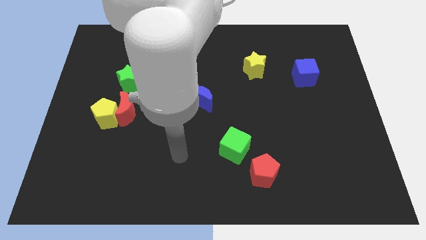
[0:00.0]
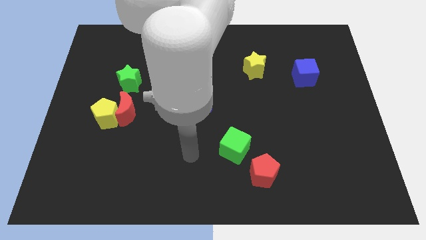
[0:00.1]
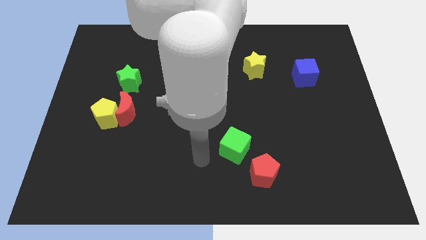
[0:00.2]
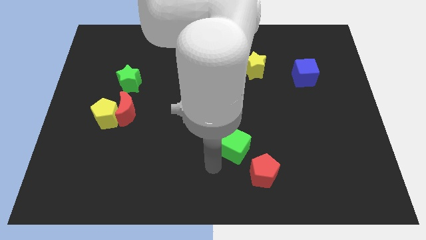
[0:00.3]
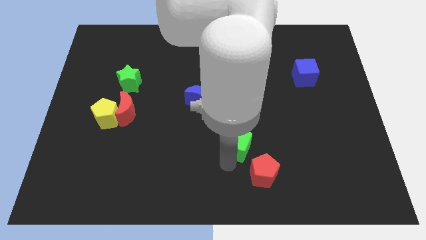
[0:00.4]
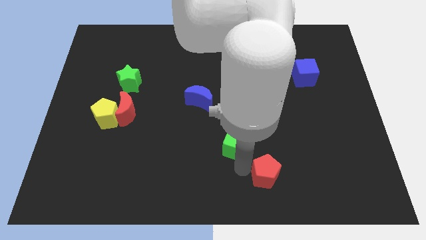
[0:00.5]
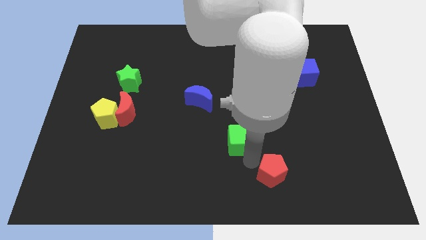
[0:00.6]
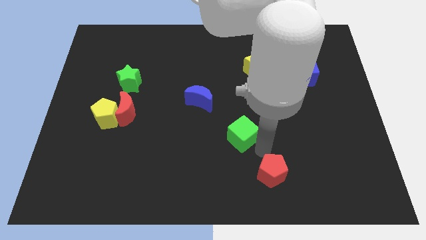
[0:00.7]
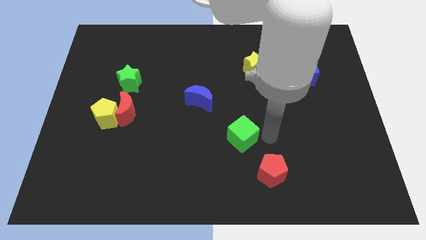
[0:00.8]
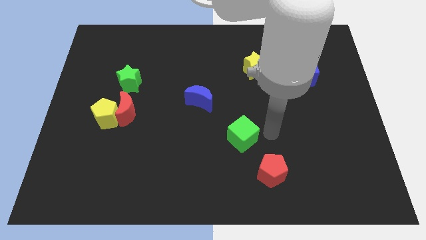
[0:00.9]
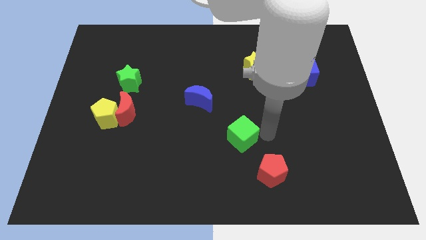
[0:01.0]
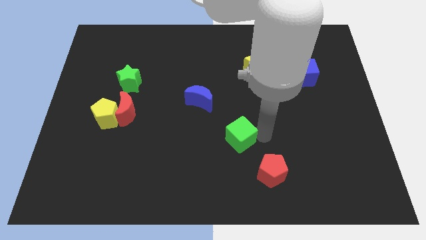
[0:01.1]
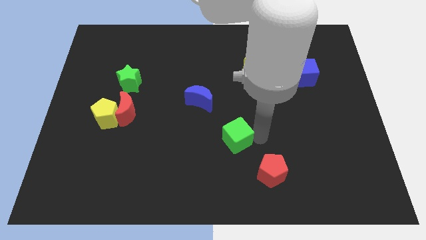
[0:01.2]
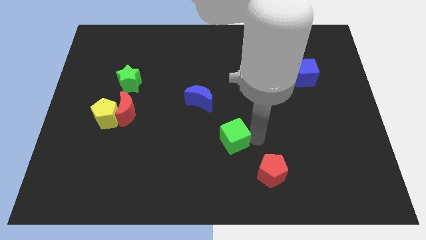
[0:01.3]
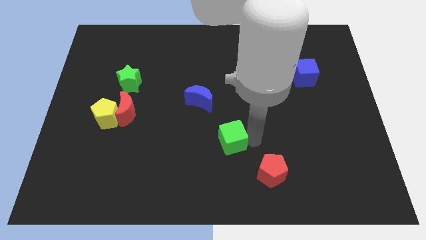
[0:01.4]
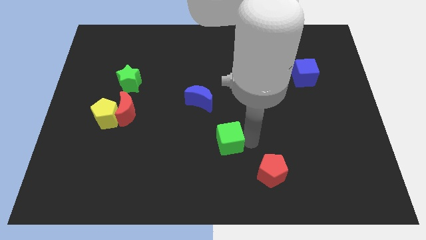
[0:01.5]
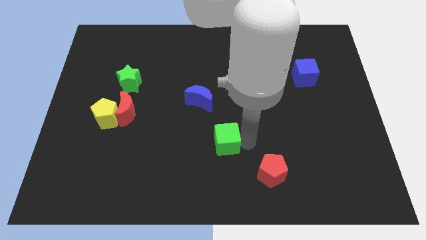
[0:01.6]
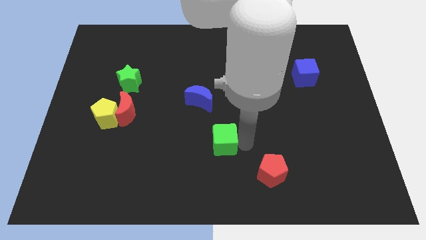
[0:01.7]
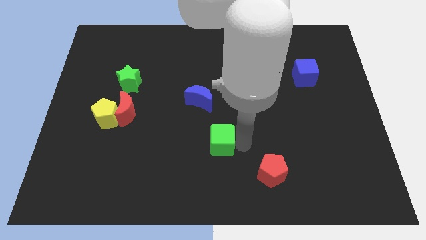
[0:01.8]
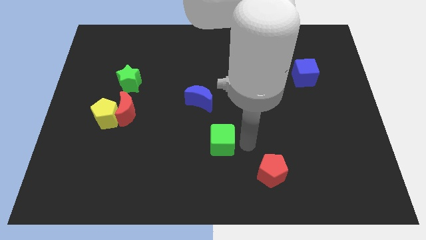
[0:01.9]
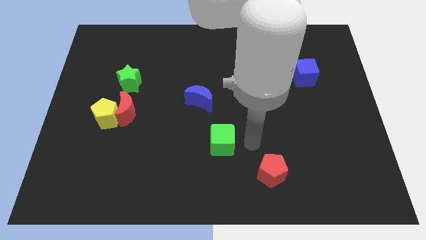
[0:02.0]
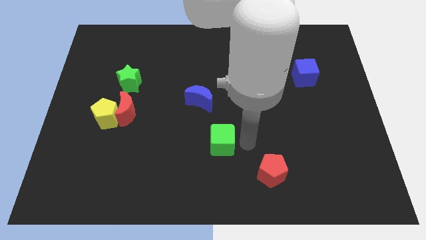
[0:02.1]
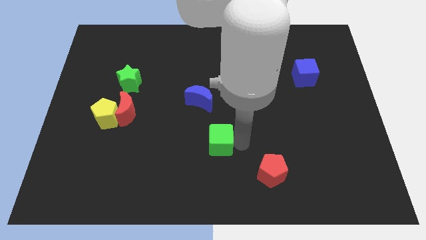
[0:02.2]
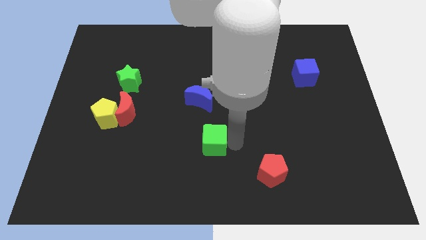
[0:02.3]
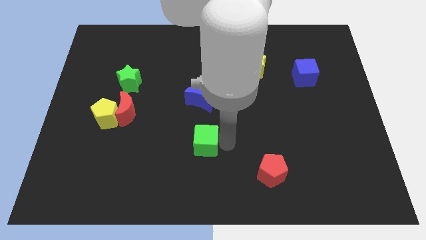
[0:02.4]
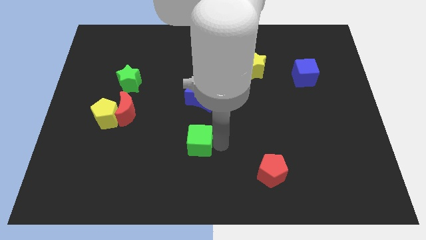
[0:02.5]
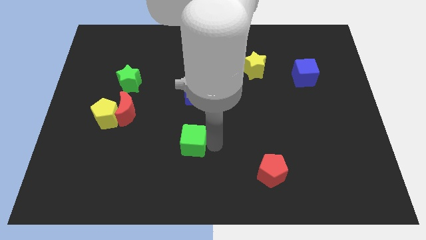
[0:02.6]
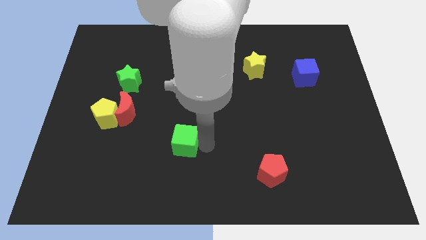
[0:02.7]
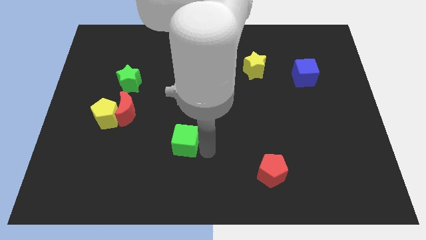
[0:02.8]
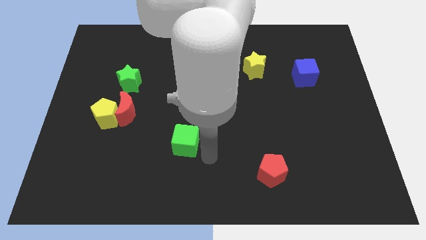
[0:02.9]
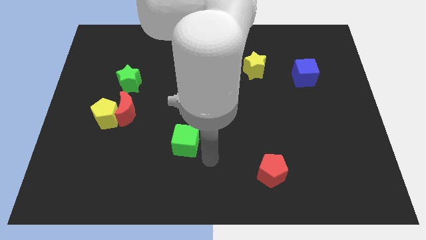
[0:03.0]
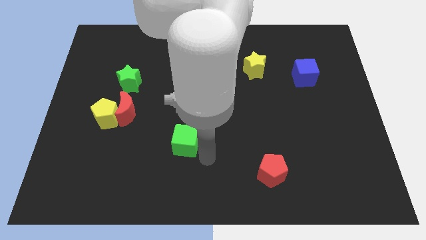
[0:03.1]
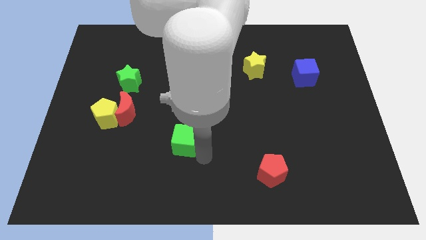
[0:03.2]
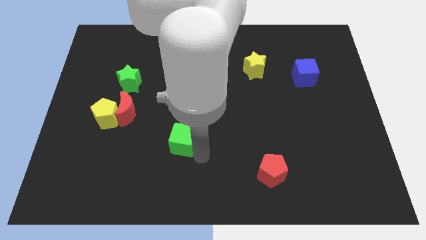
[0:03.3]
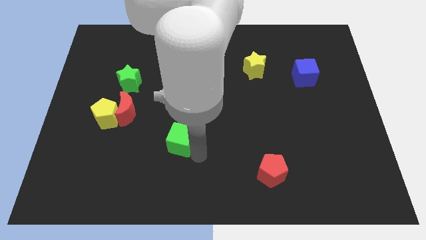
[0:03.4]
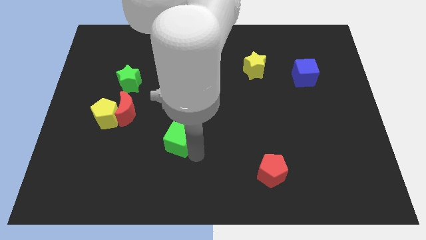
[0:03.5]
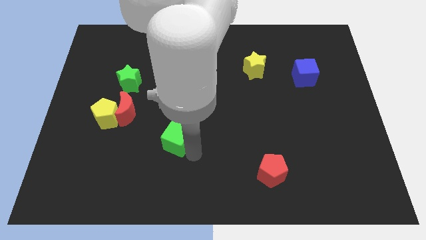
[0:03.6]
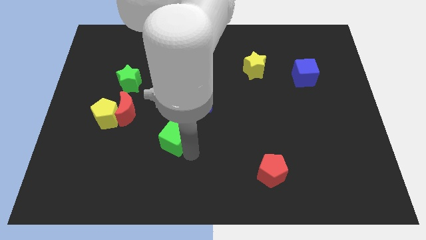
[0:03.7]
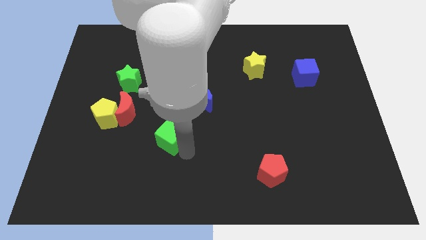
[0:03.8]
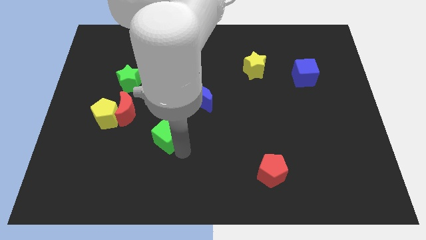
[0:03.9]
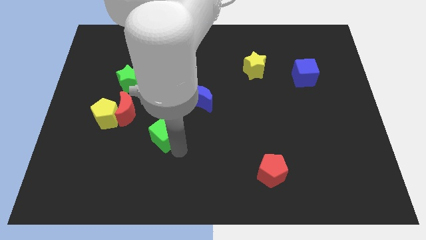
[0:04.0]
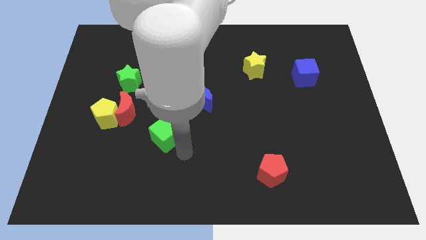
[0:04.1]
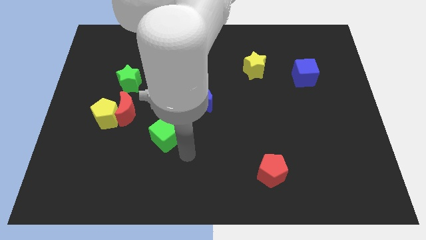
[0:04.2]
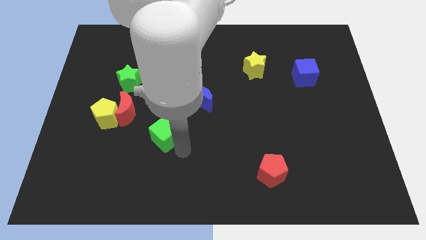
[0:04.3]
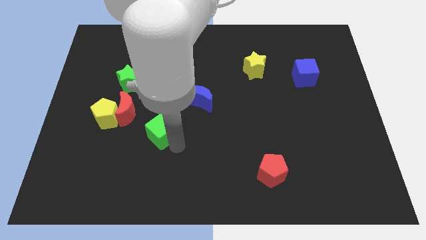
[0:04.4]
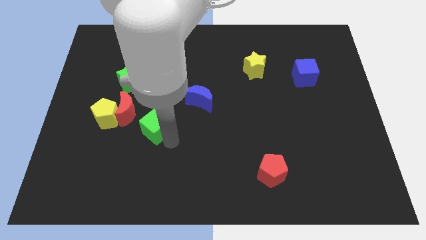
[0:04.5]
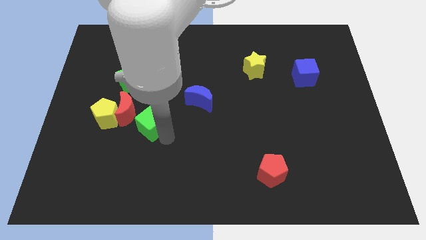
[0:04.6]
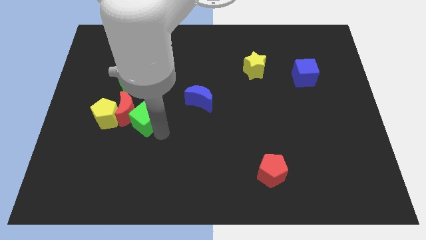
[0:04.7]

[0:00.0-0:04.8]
slide the green cube close to the red moon

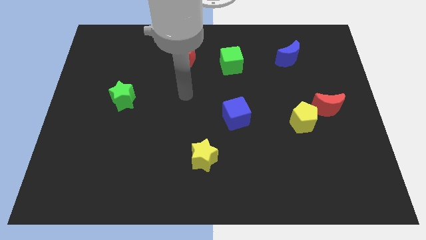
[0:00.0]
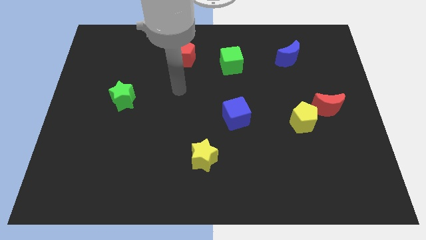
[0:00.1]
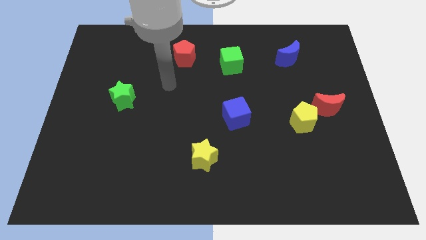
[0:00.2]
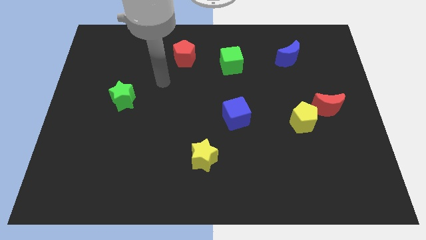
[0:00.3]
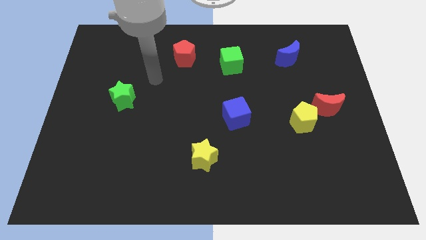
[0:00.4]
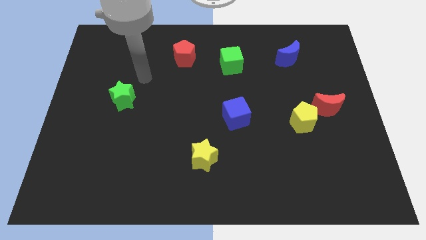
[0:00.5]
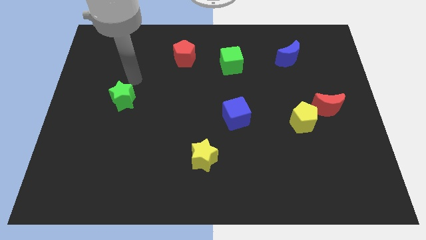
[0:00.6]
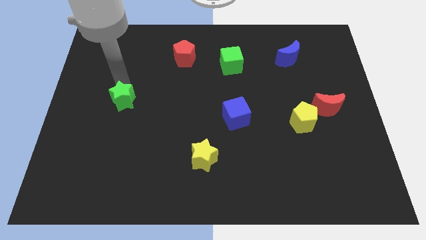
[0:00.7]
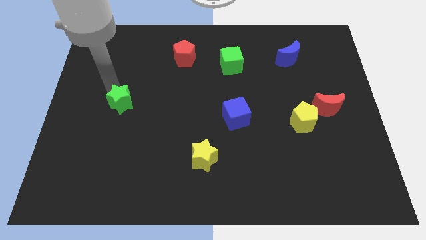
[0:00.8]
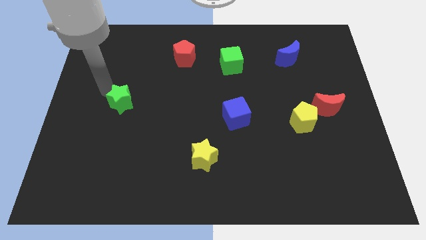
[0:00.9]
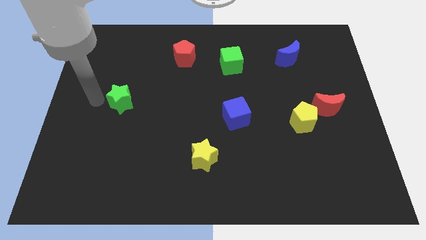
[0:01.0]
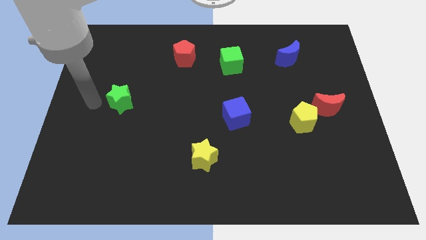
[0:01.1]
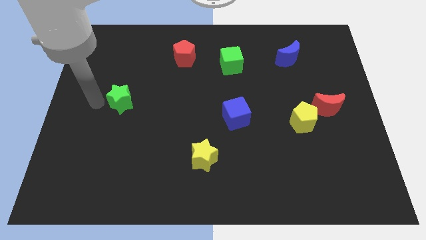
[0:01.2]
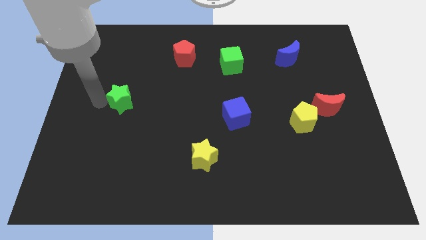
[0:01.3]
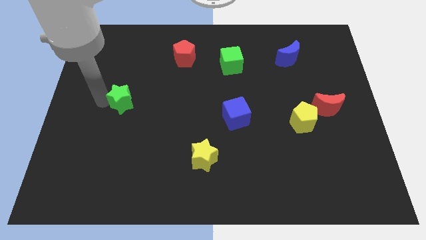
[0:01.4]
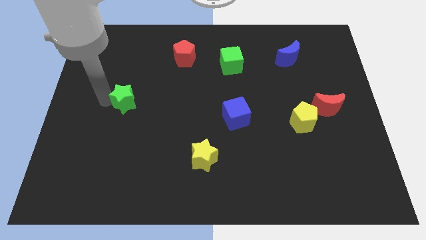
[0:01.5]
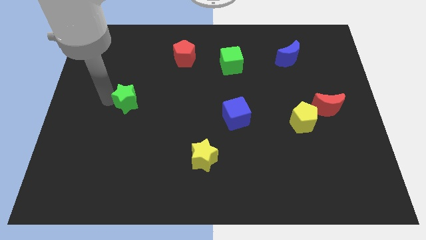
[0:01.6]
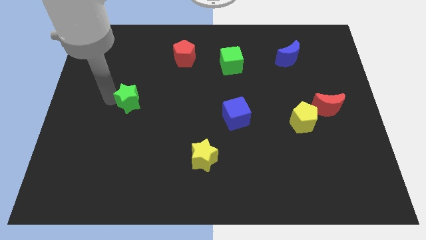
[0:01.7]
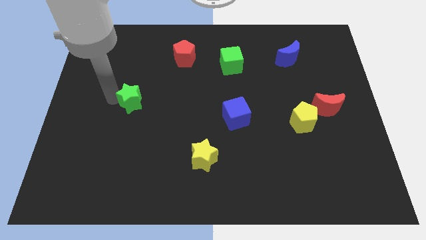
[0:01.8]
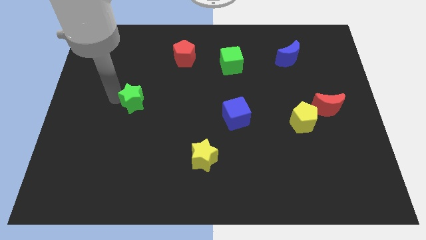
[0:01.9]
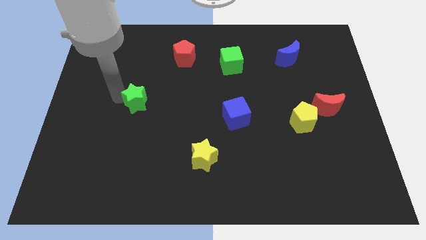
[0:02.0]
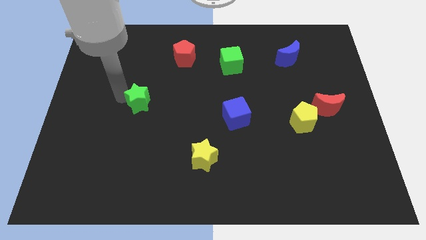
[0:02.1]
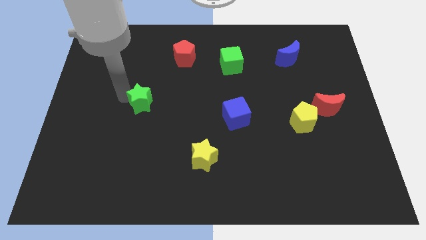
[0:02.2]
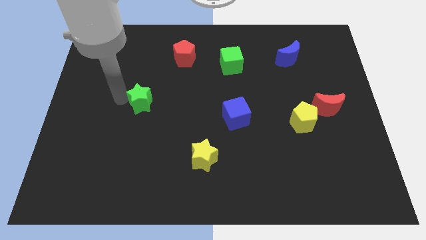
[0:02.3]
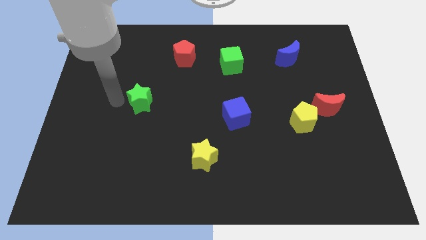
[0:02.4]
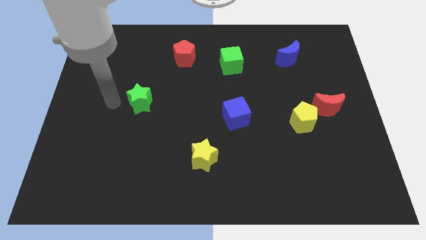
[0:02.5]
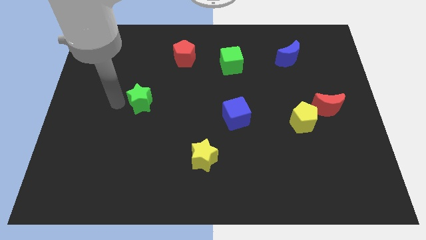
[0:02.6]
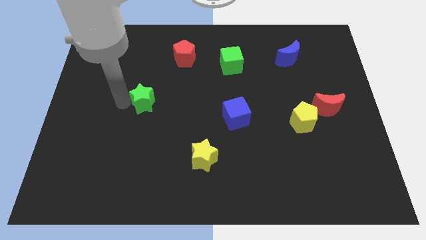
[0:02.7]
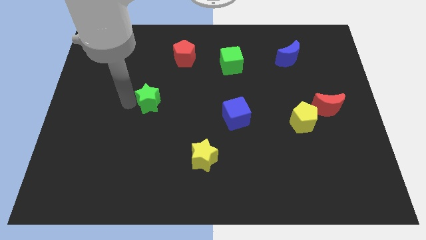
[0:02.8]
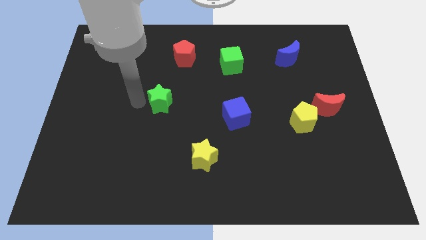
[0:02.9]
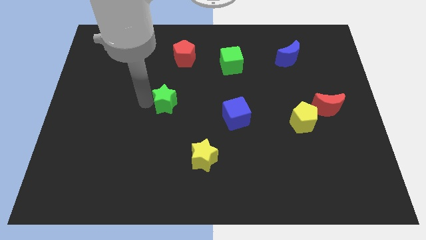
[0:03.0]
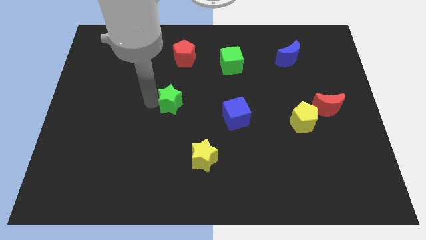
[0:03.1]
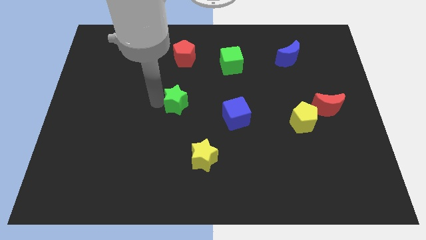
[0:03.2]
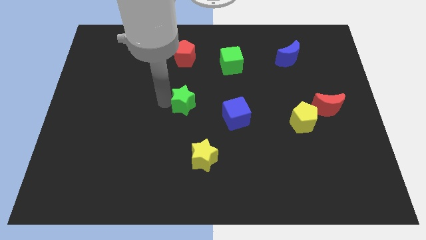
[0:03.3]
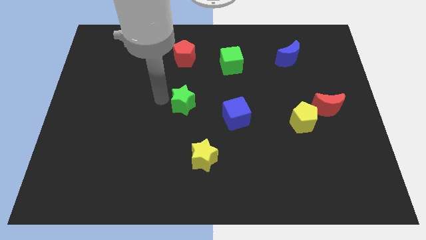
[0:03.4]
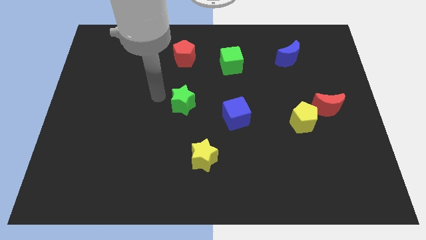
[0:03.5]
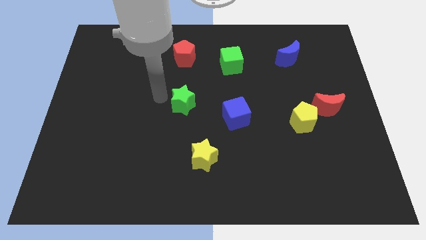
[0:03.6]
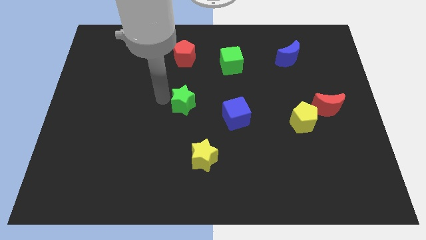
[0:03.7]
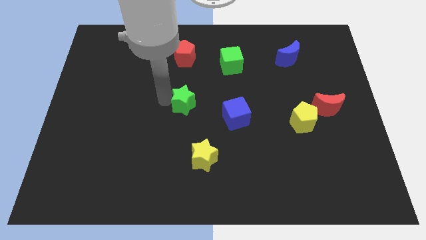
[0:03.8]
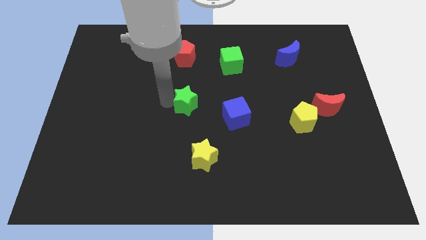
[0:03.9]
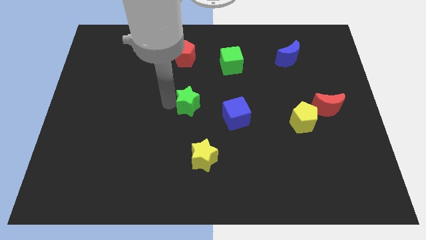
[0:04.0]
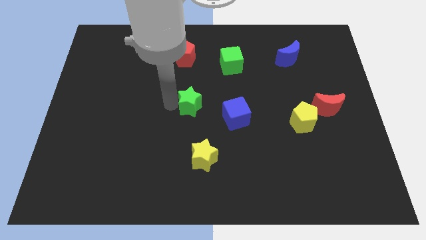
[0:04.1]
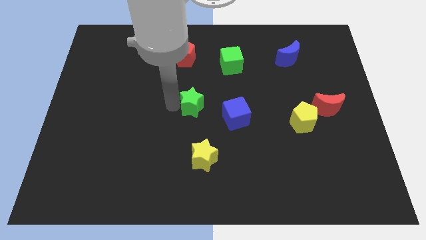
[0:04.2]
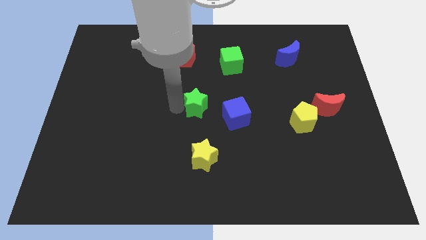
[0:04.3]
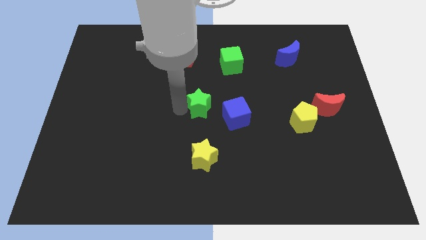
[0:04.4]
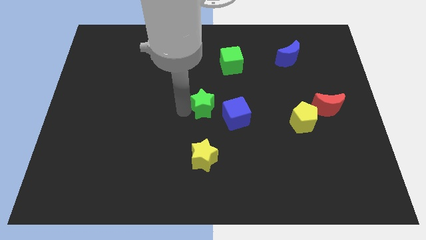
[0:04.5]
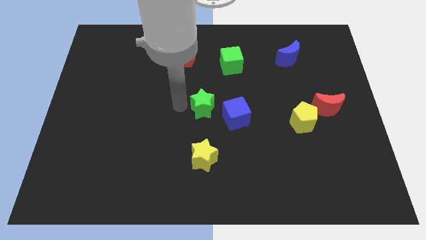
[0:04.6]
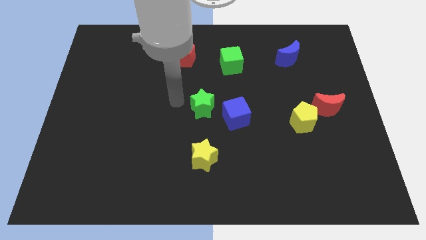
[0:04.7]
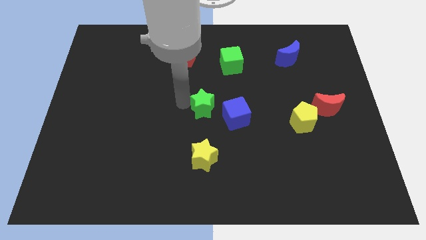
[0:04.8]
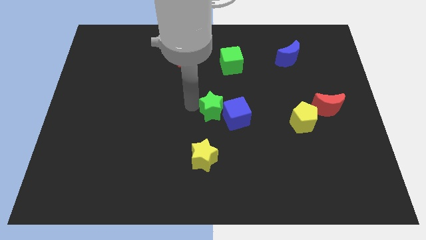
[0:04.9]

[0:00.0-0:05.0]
move the green star close to the blue cube
